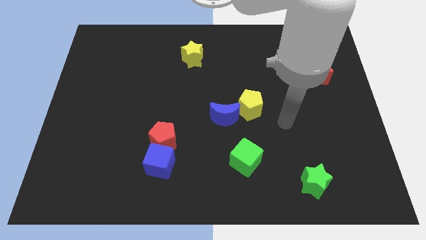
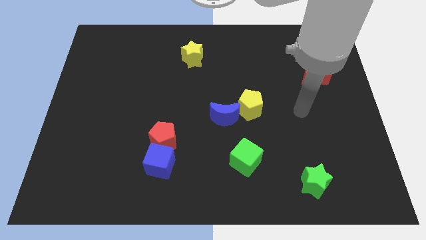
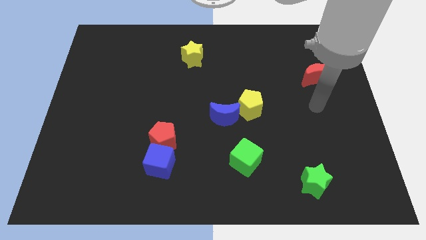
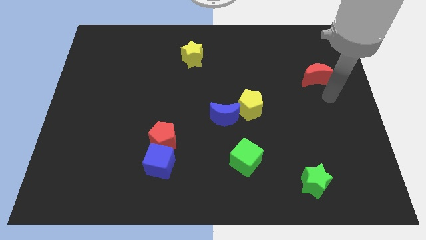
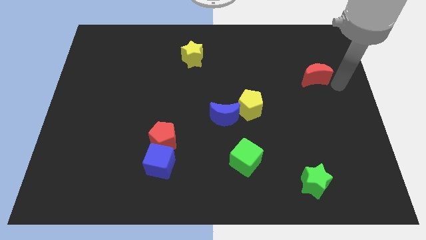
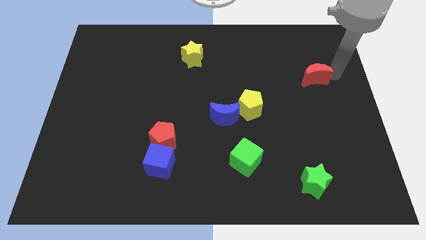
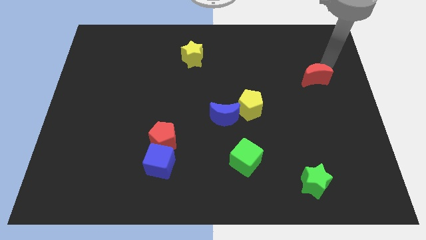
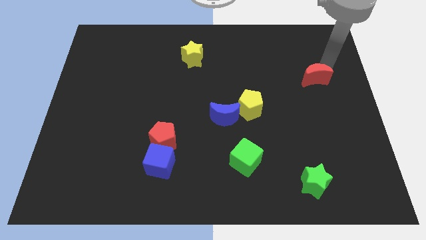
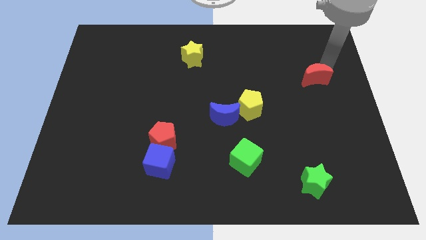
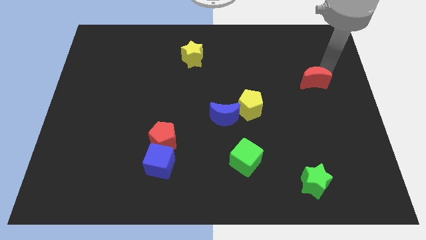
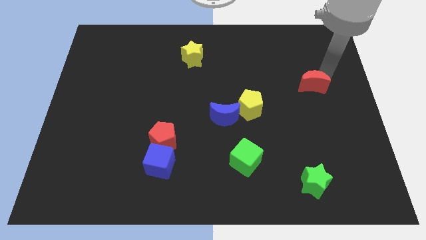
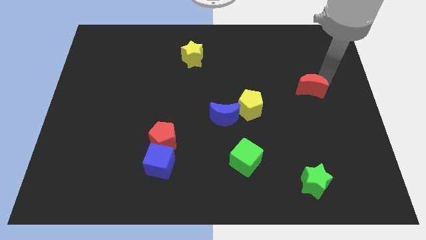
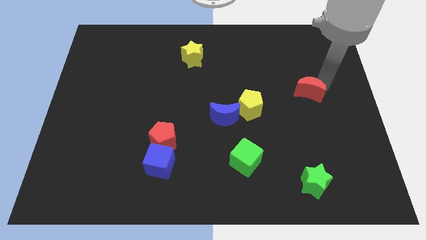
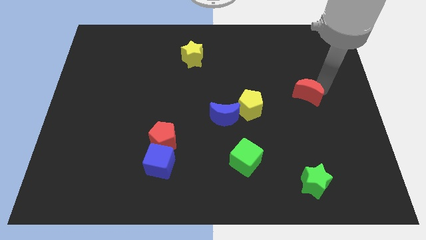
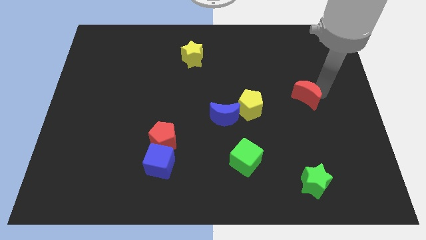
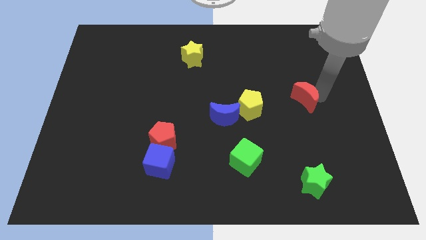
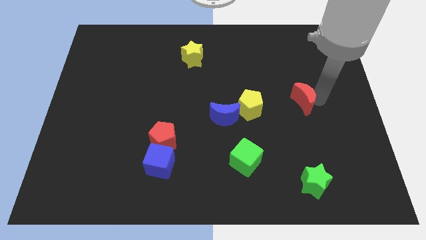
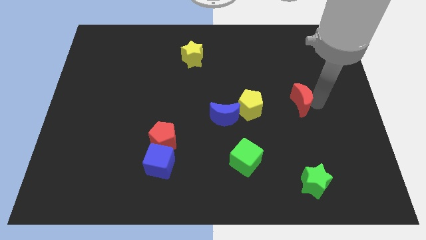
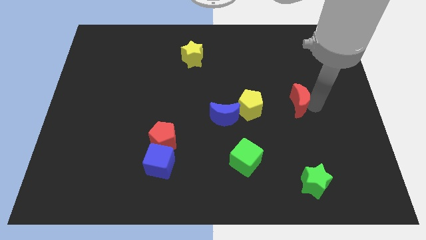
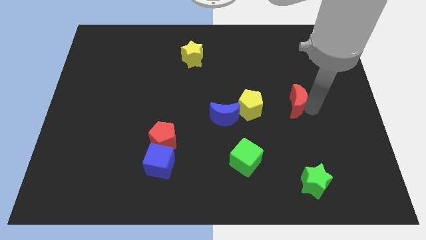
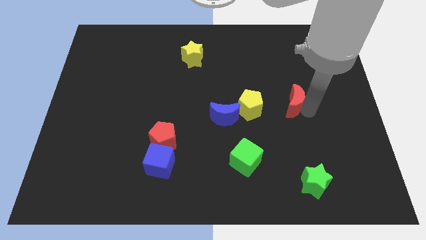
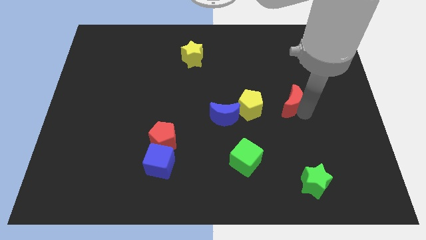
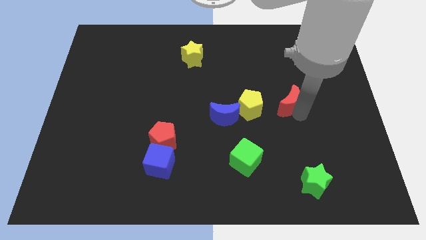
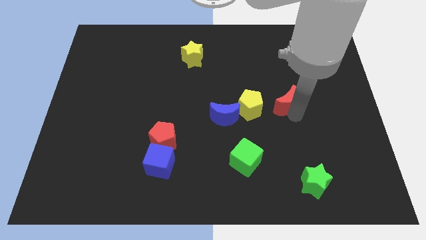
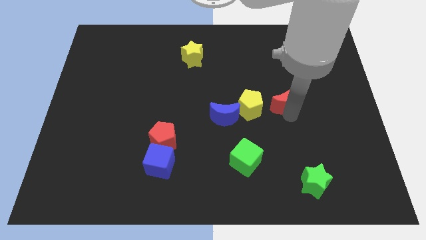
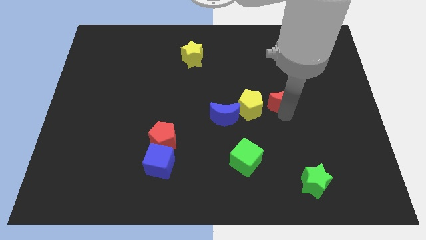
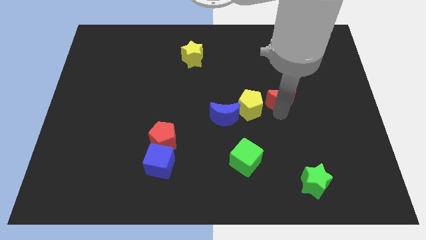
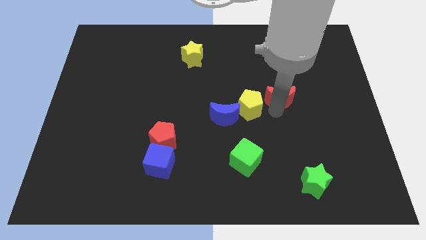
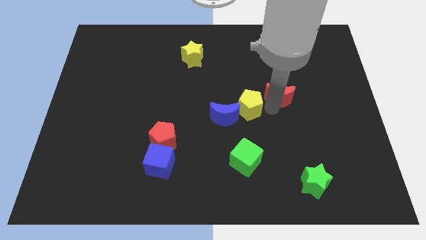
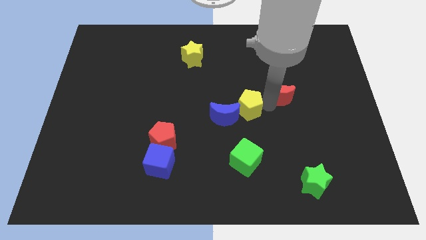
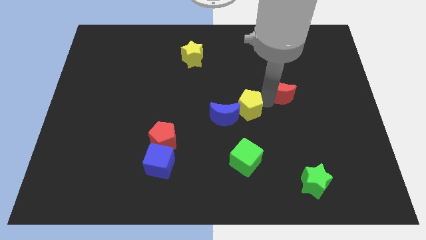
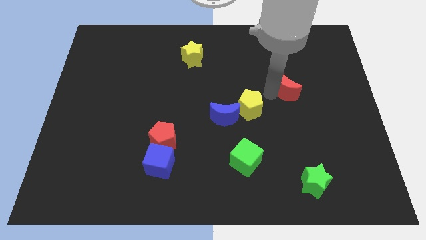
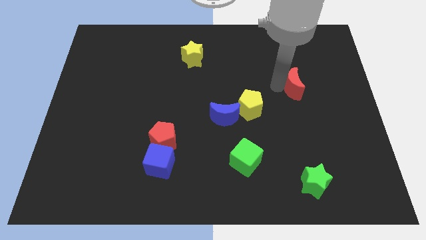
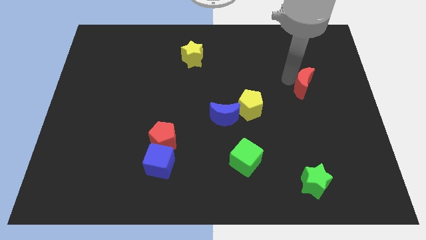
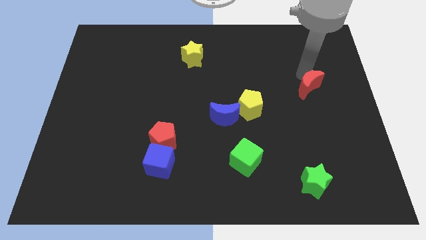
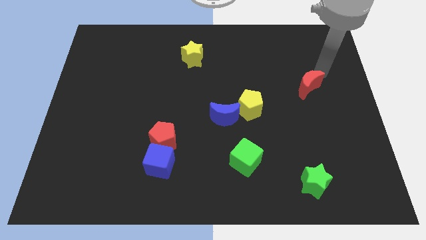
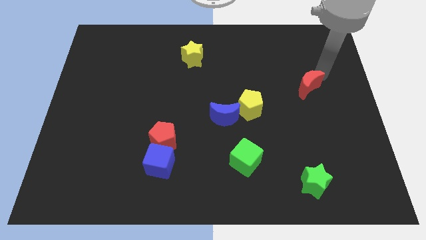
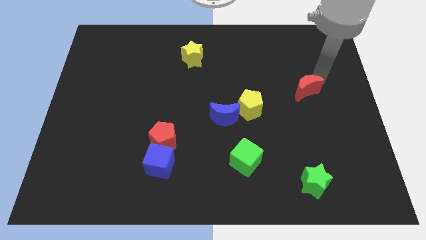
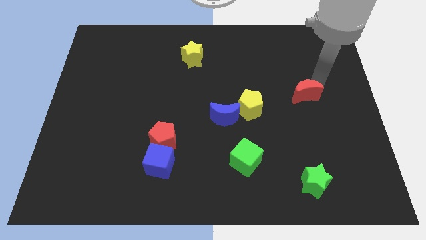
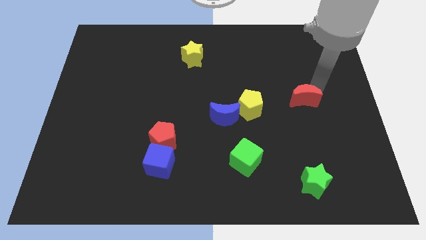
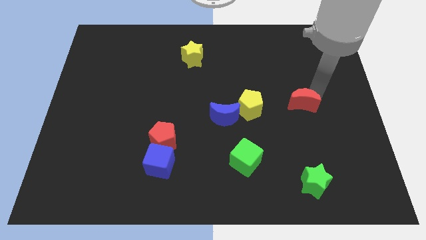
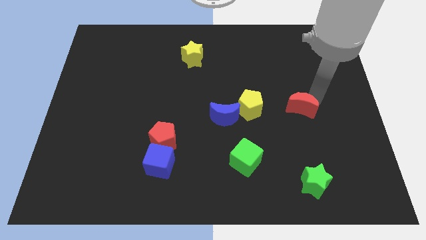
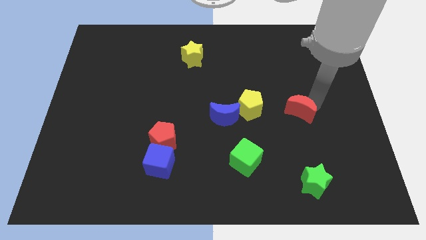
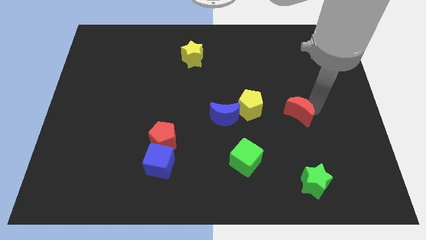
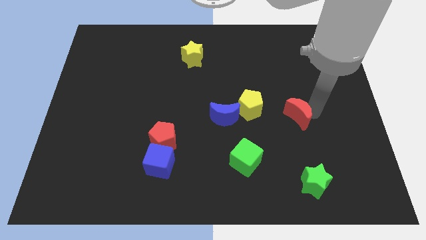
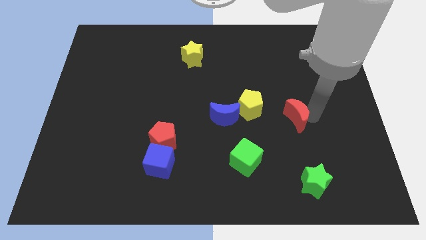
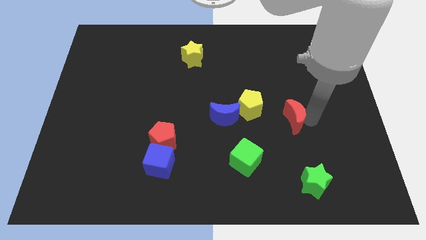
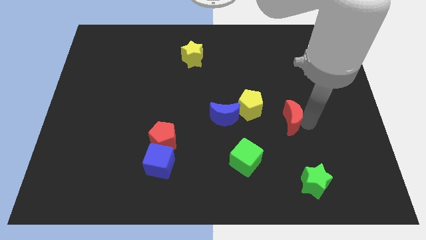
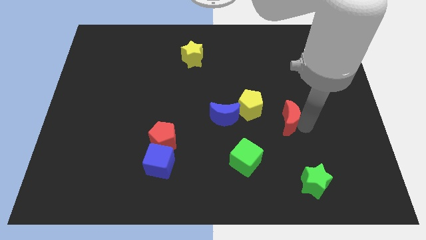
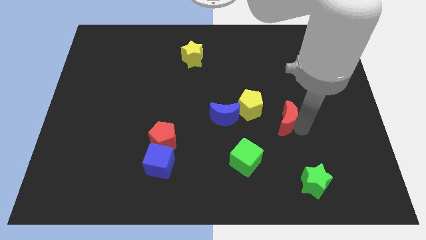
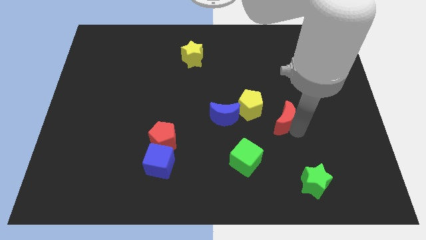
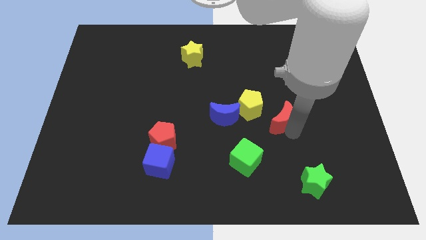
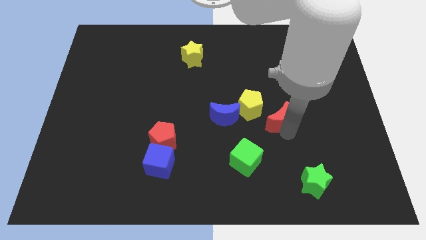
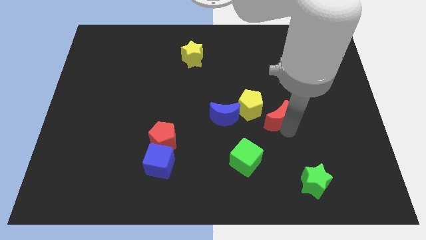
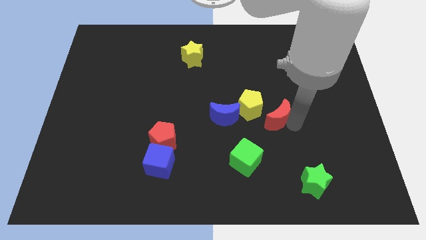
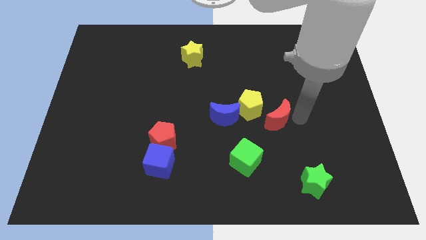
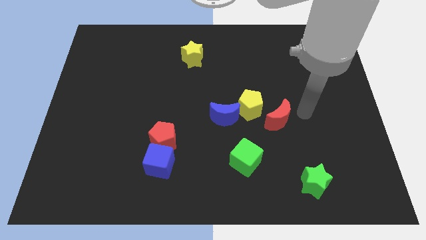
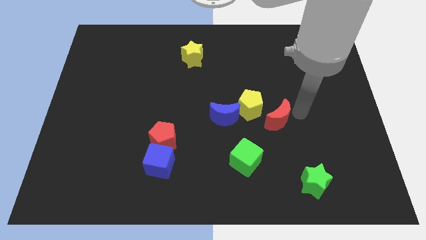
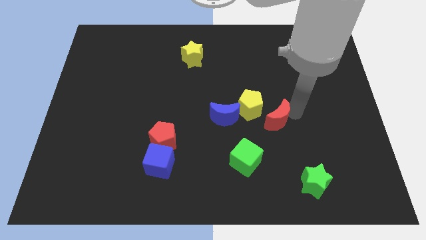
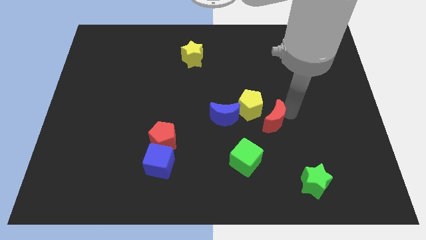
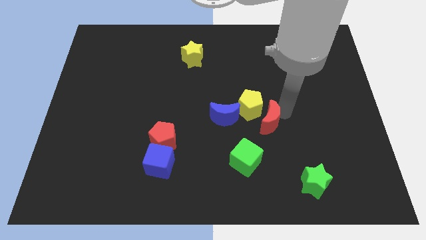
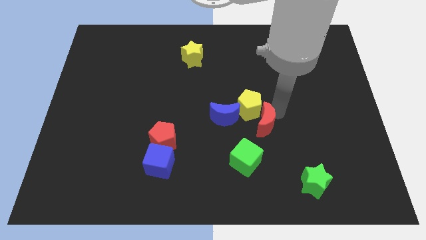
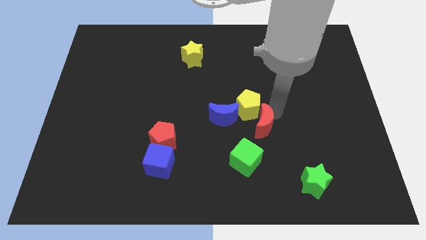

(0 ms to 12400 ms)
move the red moon down and then left

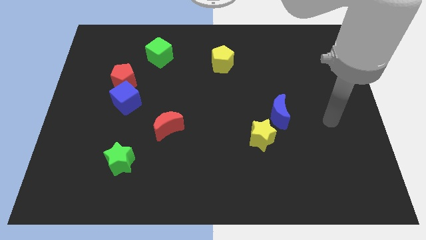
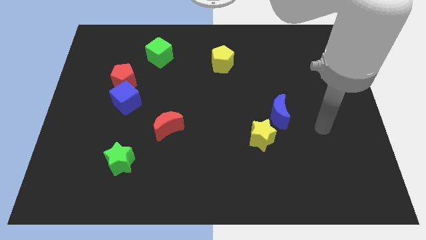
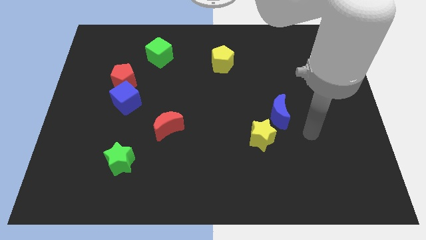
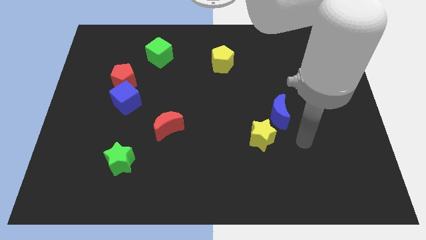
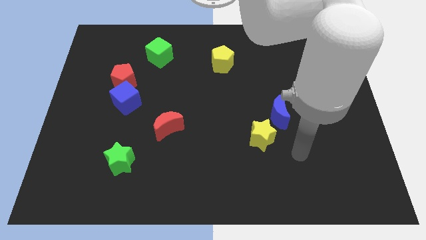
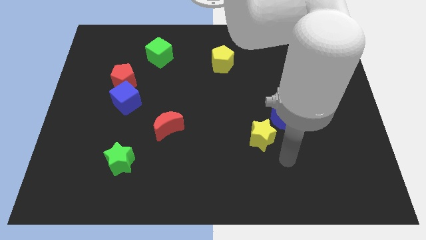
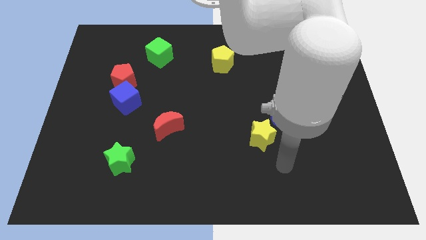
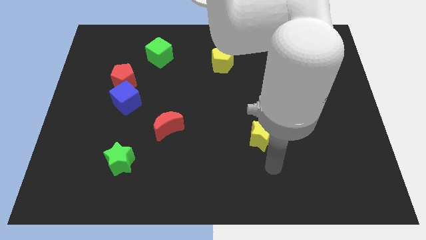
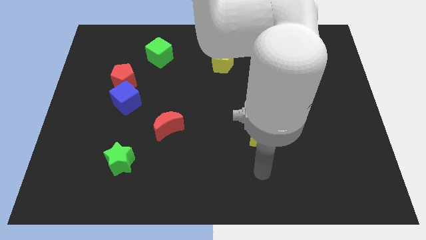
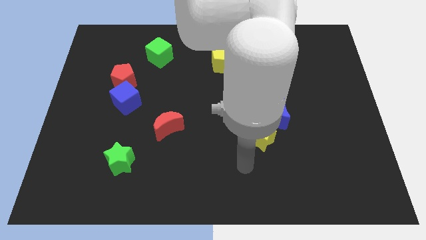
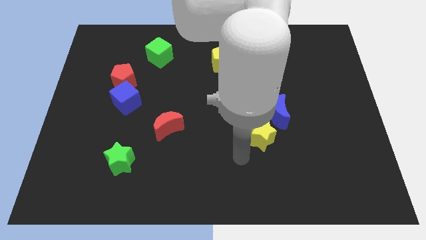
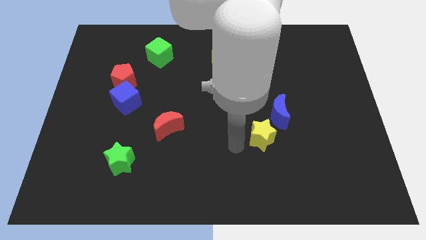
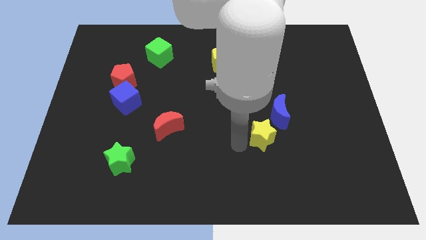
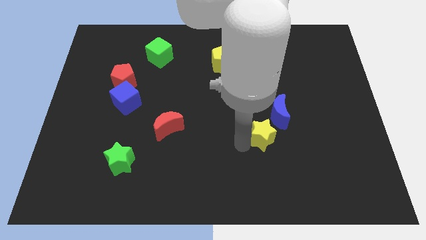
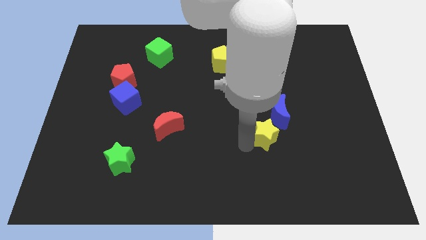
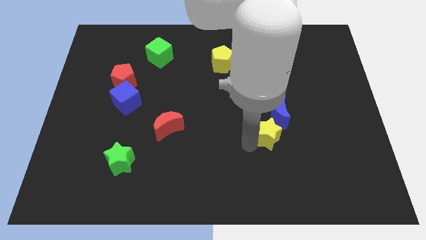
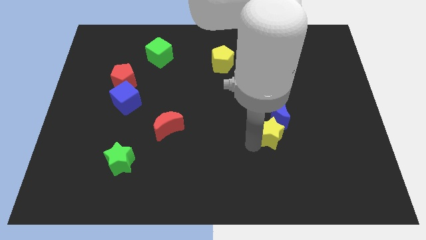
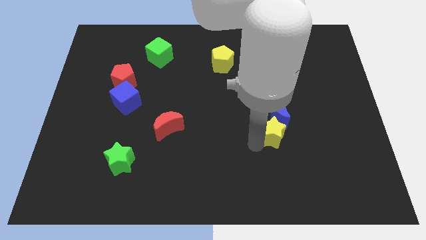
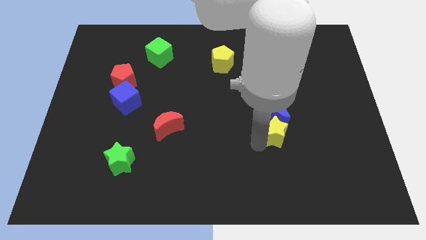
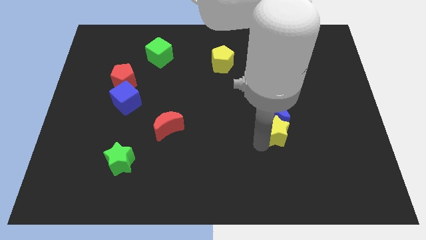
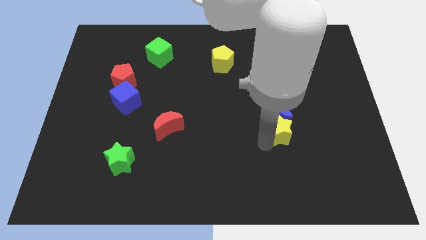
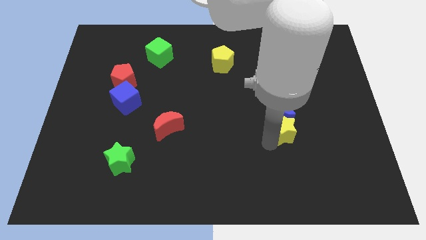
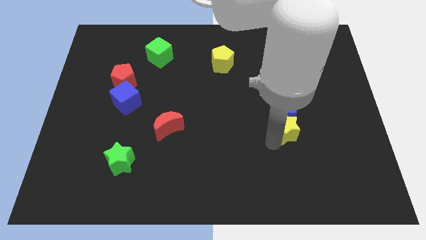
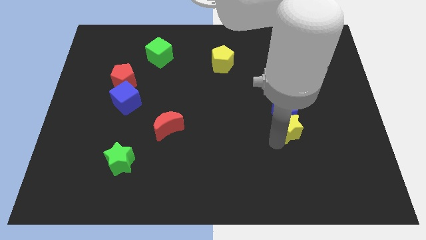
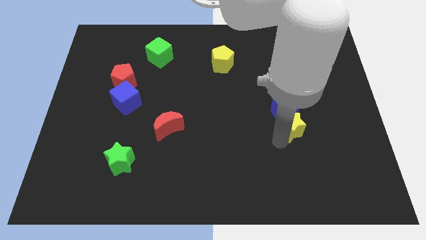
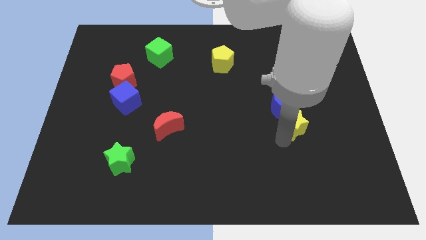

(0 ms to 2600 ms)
slightly slide the yellow star diagonally upwards and to the right
